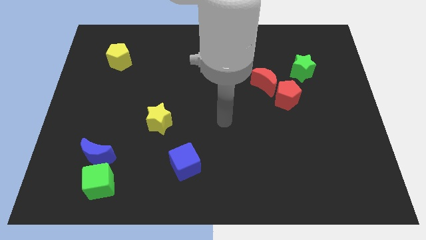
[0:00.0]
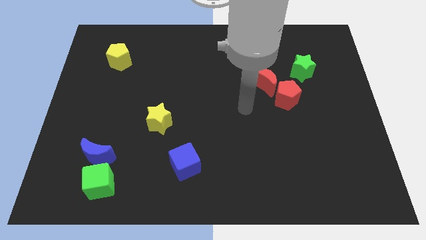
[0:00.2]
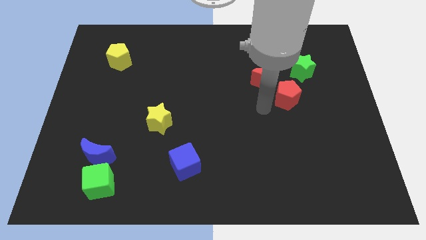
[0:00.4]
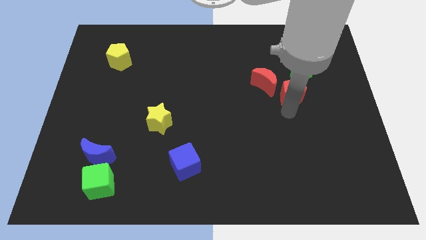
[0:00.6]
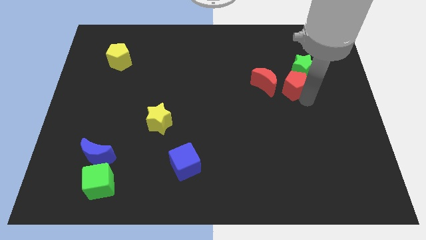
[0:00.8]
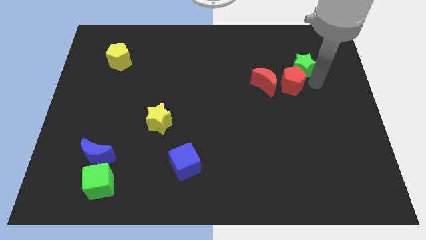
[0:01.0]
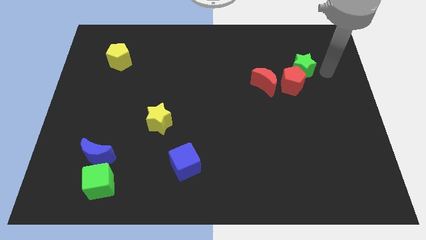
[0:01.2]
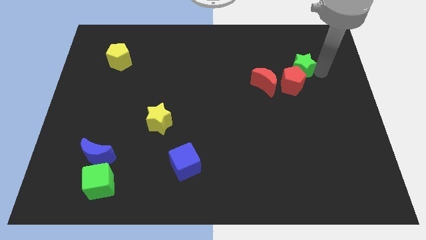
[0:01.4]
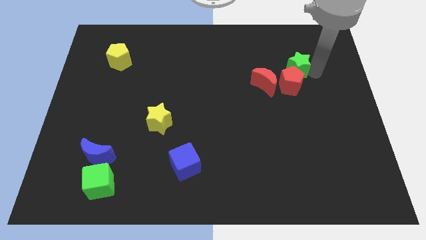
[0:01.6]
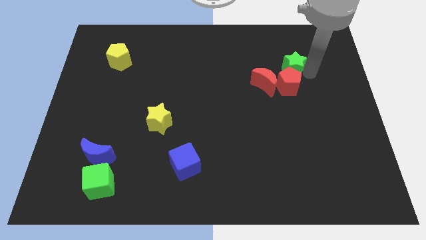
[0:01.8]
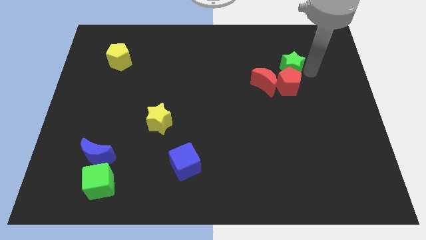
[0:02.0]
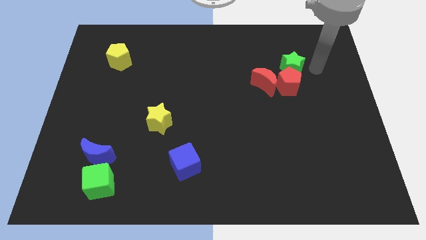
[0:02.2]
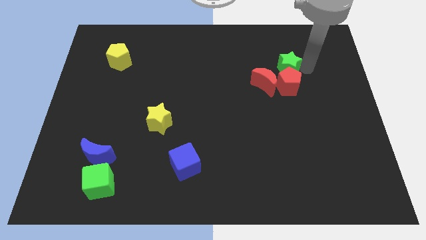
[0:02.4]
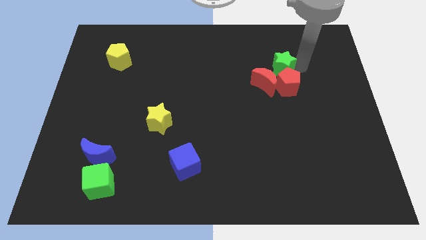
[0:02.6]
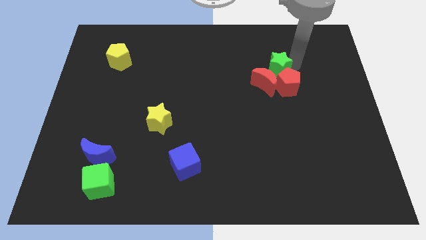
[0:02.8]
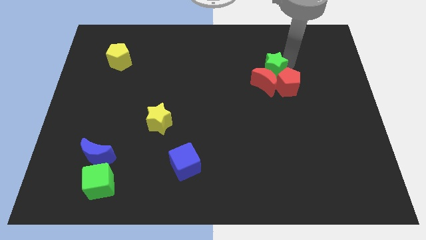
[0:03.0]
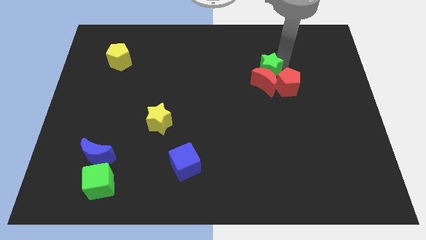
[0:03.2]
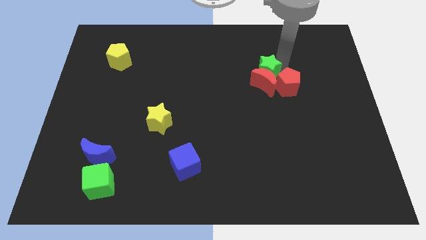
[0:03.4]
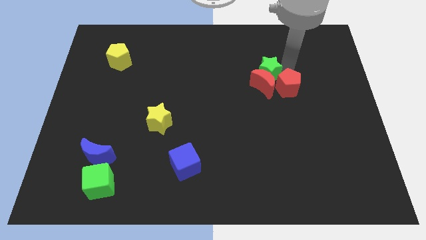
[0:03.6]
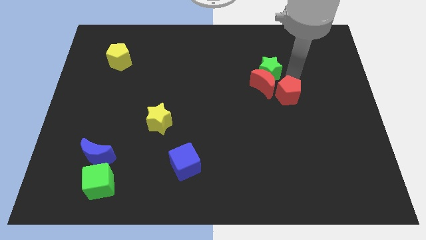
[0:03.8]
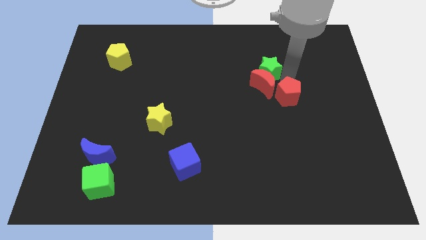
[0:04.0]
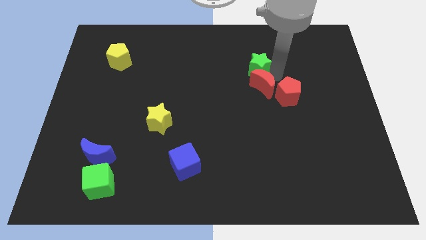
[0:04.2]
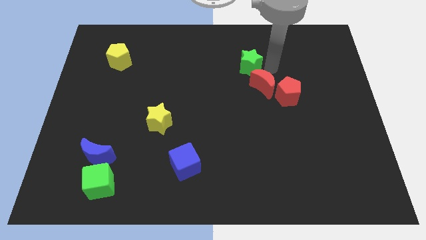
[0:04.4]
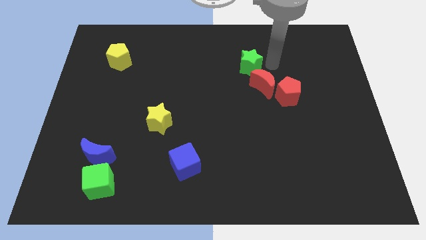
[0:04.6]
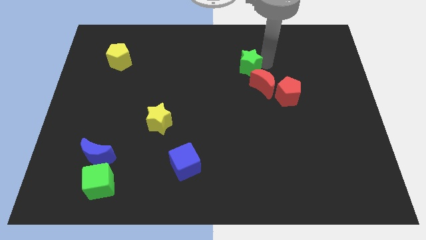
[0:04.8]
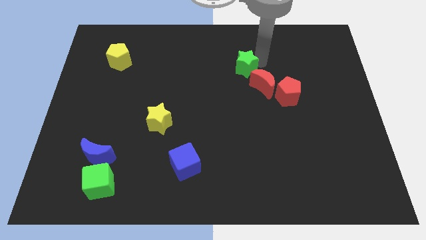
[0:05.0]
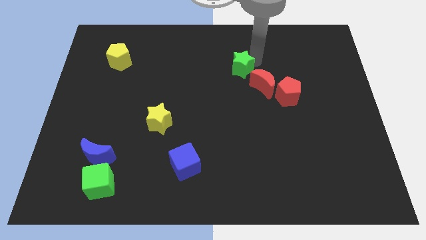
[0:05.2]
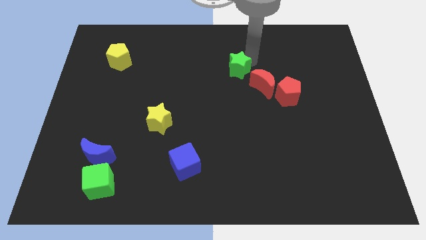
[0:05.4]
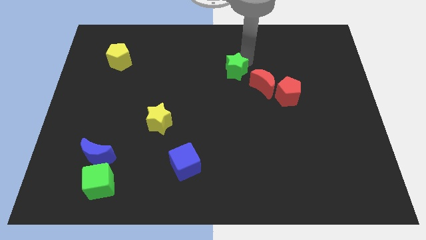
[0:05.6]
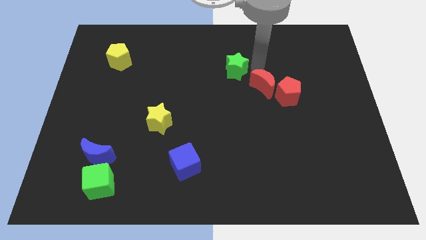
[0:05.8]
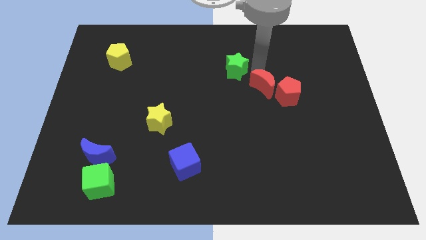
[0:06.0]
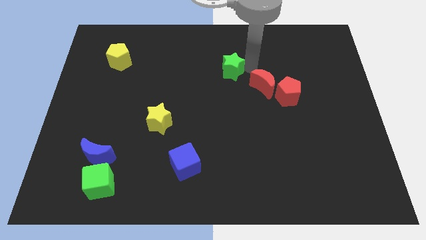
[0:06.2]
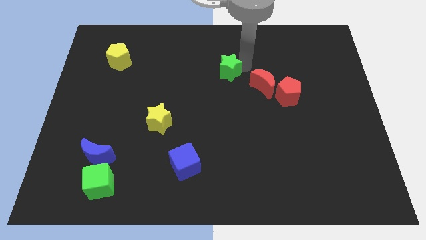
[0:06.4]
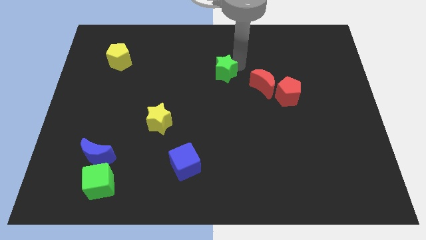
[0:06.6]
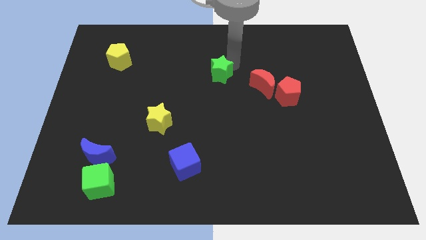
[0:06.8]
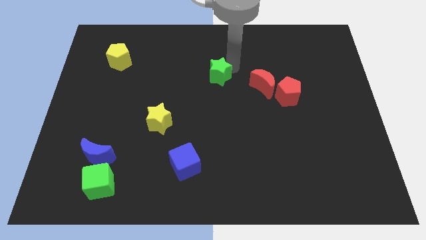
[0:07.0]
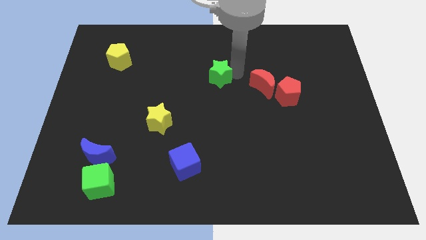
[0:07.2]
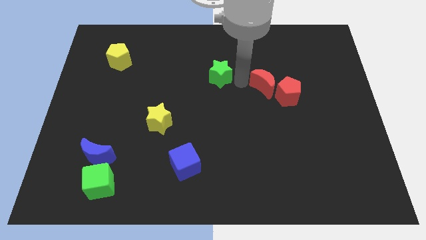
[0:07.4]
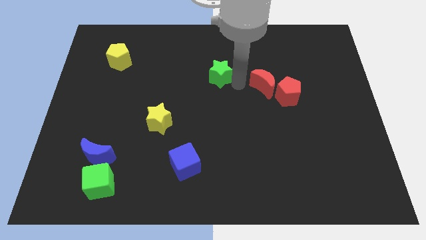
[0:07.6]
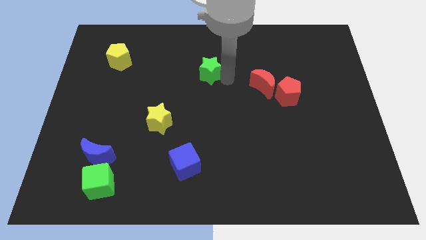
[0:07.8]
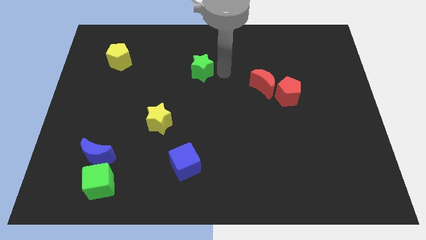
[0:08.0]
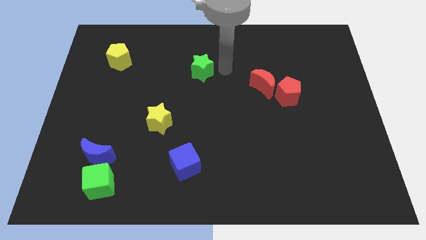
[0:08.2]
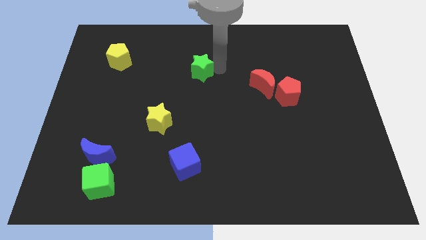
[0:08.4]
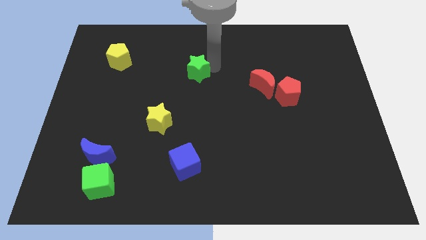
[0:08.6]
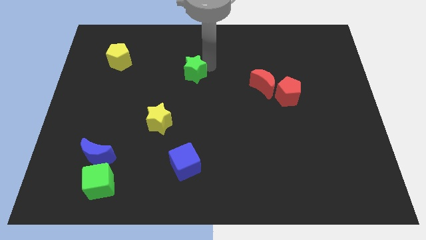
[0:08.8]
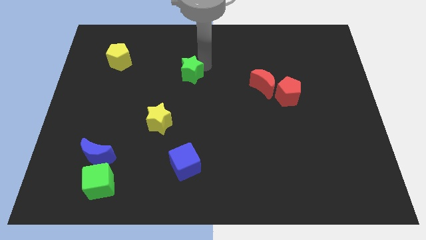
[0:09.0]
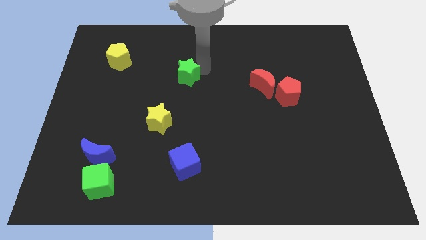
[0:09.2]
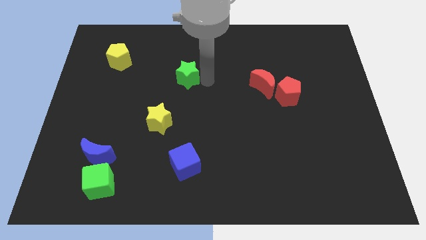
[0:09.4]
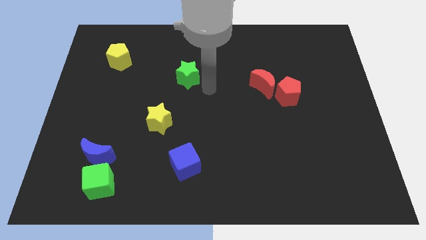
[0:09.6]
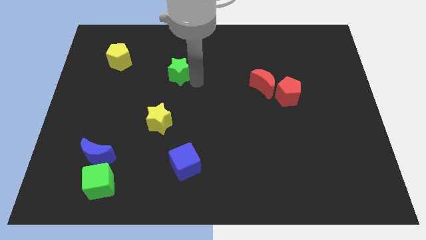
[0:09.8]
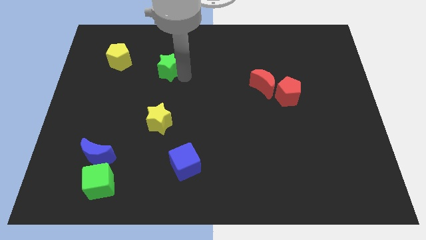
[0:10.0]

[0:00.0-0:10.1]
push the green star just right of the yellow pentagon

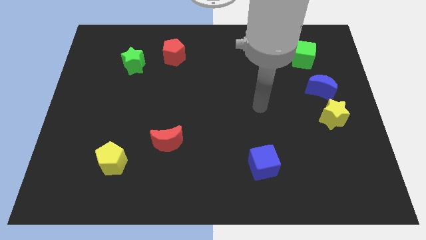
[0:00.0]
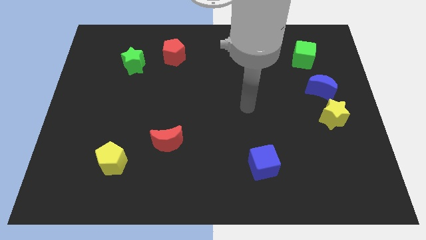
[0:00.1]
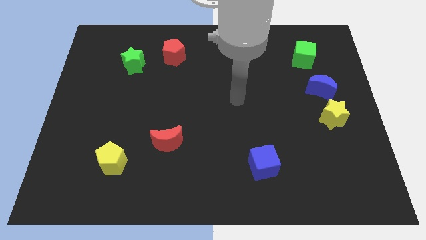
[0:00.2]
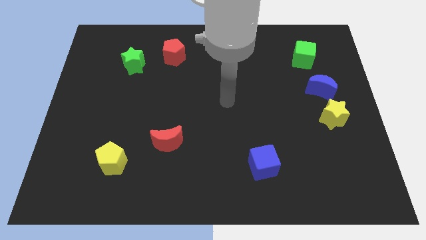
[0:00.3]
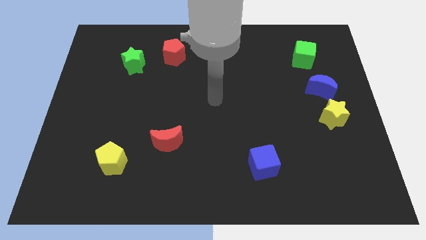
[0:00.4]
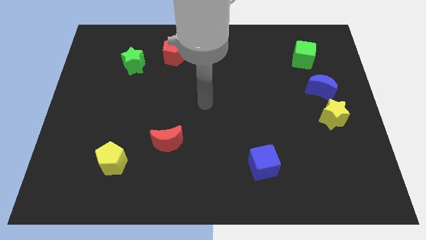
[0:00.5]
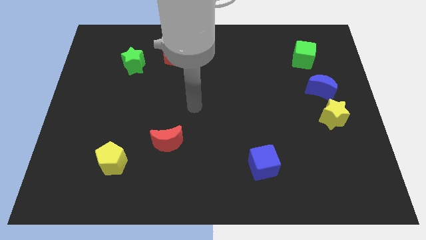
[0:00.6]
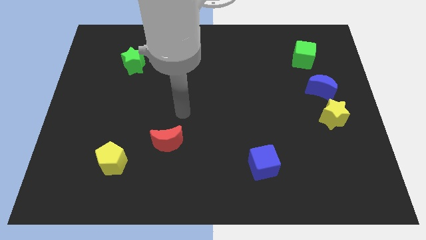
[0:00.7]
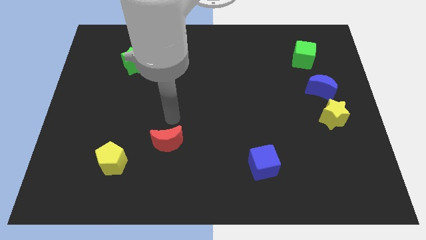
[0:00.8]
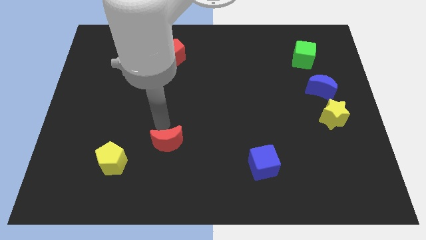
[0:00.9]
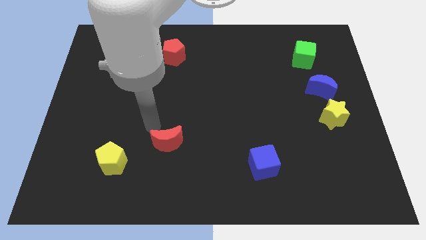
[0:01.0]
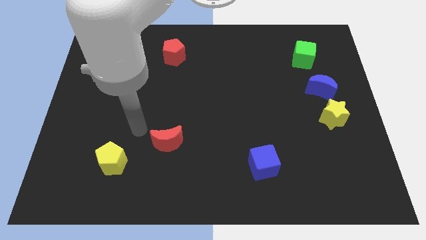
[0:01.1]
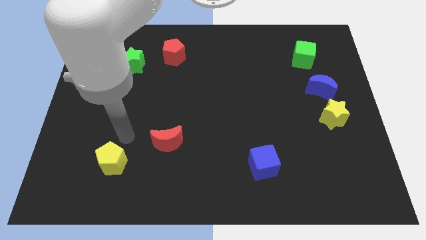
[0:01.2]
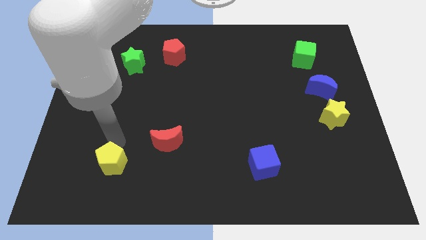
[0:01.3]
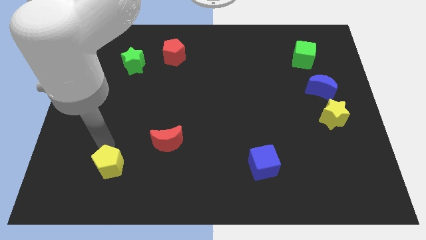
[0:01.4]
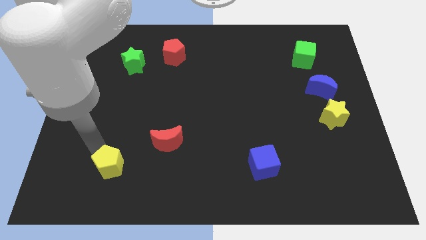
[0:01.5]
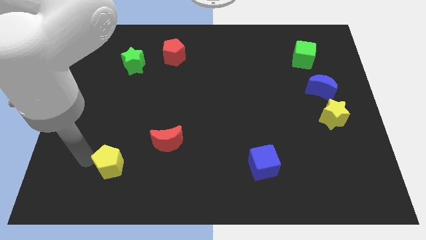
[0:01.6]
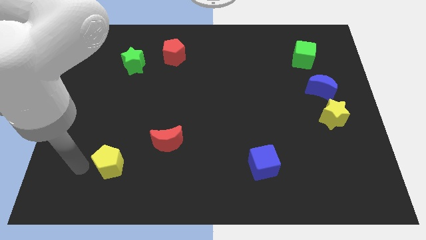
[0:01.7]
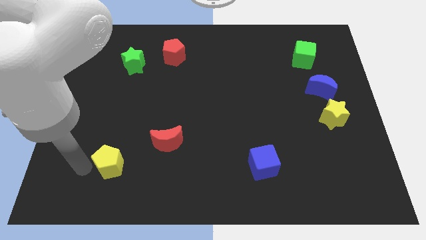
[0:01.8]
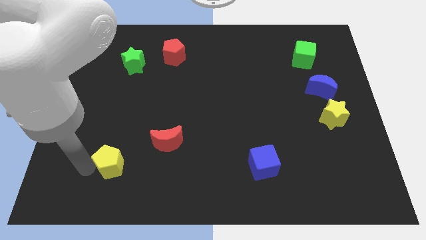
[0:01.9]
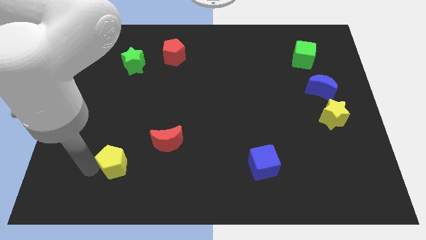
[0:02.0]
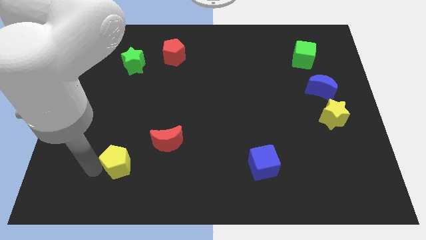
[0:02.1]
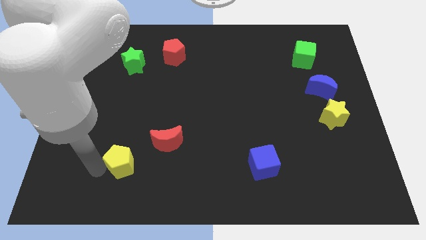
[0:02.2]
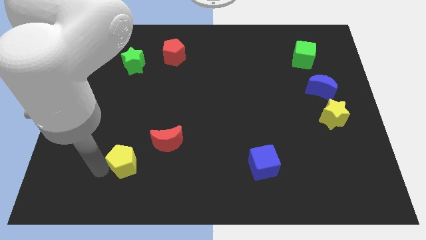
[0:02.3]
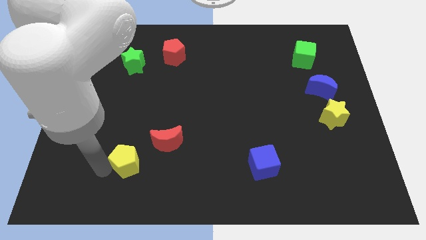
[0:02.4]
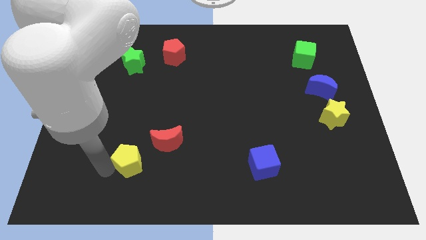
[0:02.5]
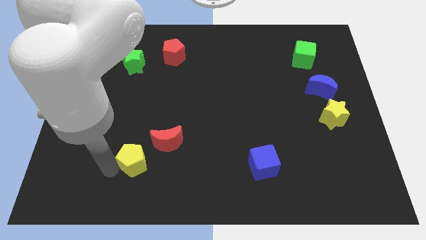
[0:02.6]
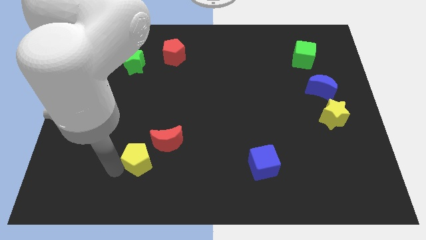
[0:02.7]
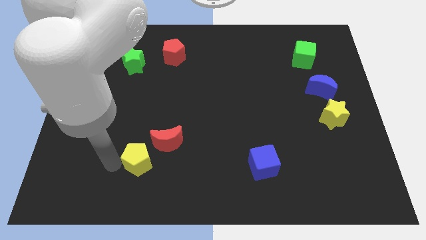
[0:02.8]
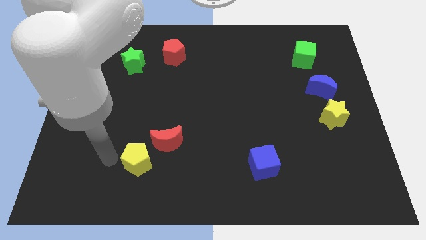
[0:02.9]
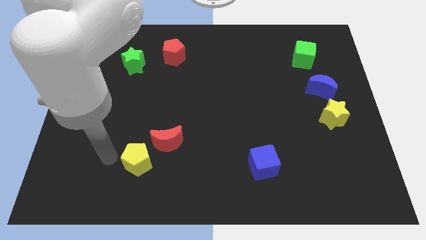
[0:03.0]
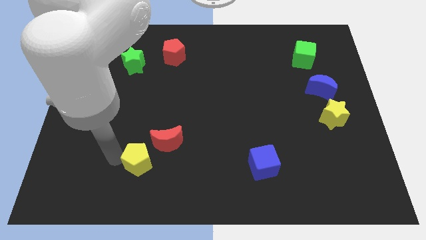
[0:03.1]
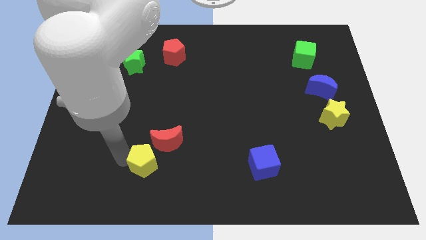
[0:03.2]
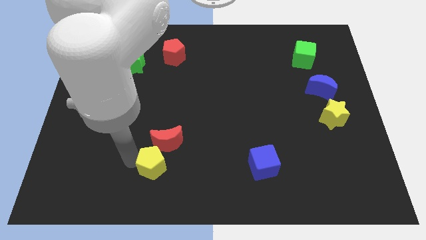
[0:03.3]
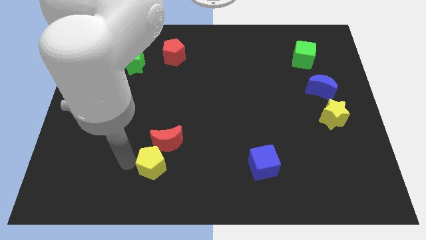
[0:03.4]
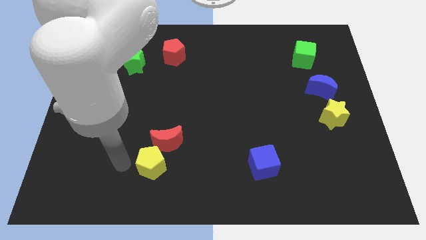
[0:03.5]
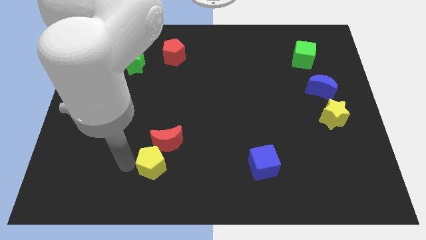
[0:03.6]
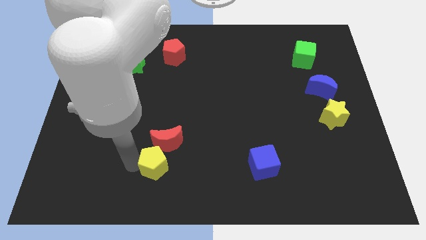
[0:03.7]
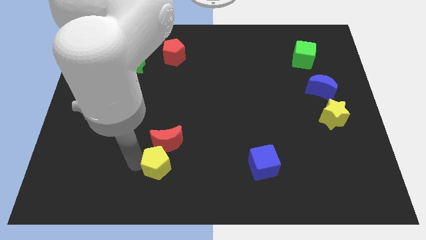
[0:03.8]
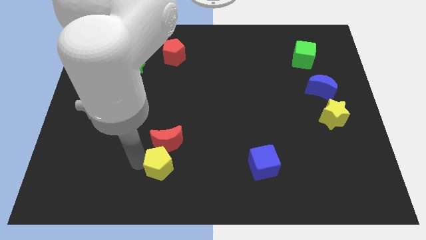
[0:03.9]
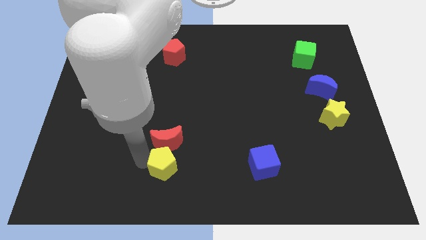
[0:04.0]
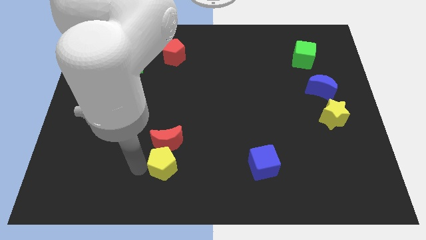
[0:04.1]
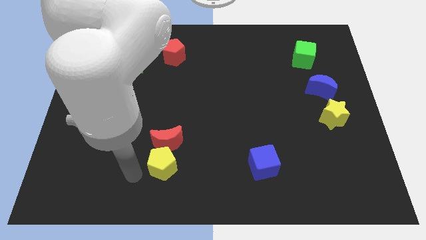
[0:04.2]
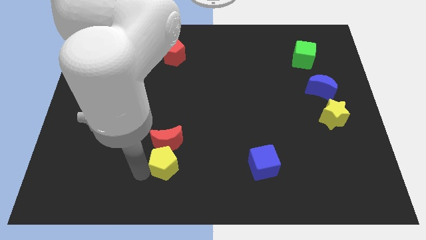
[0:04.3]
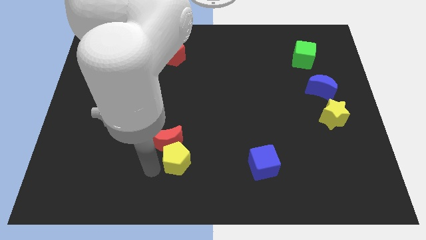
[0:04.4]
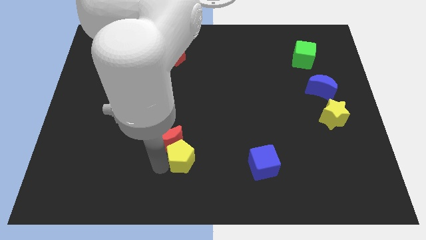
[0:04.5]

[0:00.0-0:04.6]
slide the yellow pentagon to the right side of the red moon
